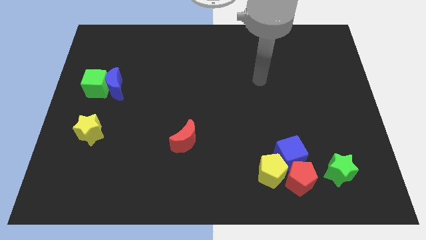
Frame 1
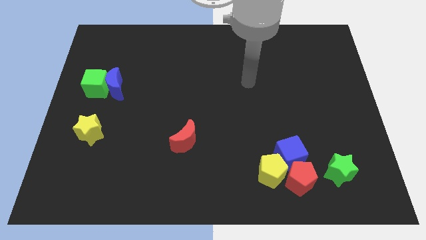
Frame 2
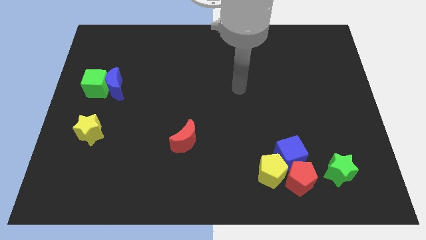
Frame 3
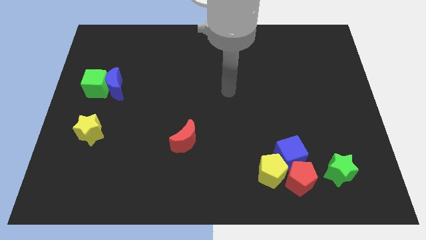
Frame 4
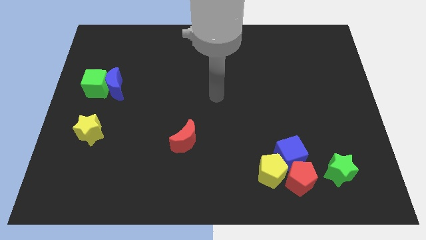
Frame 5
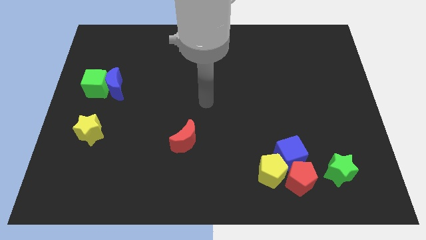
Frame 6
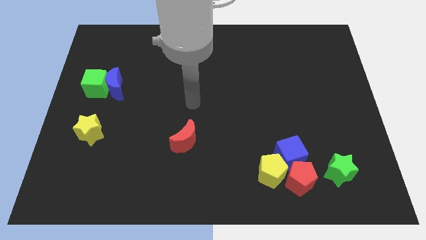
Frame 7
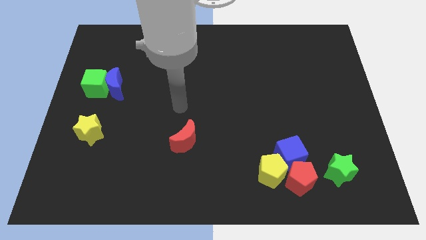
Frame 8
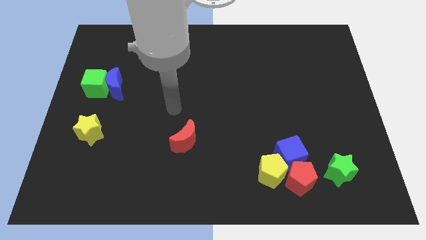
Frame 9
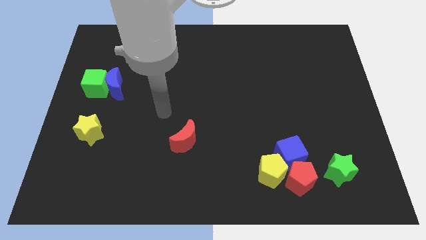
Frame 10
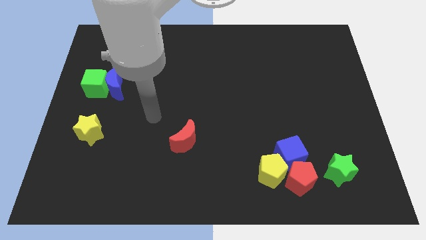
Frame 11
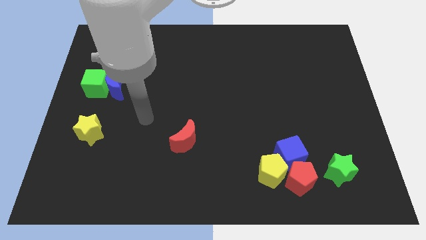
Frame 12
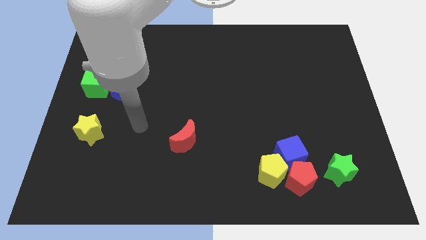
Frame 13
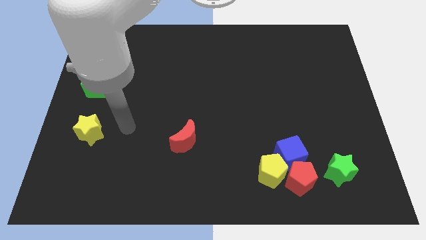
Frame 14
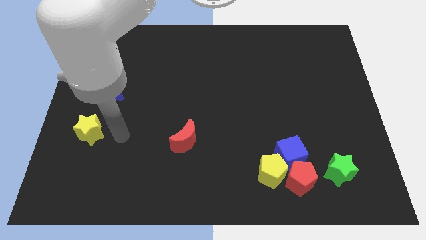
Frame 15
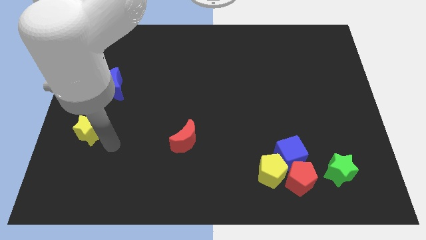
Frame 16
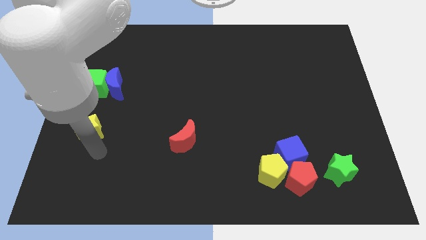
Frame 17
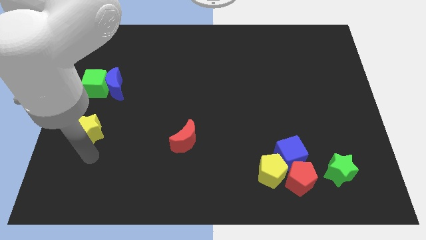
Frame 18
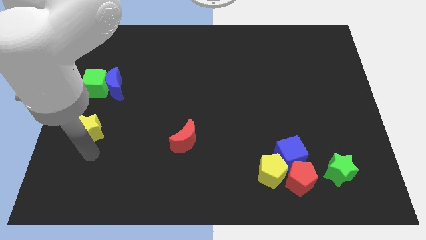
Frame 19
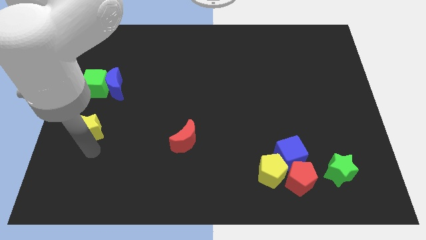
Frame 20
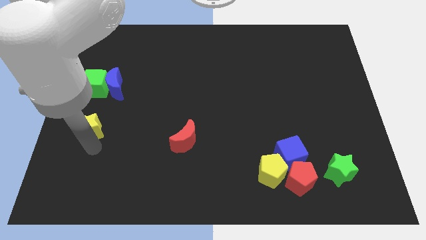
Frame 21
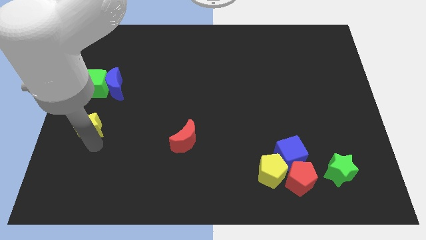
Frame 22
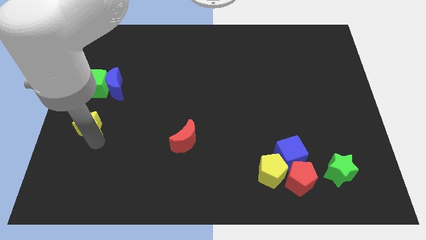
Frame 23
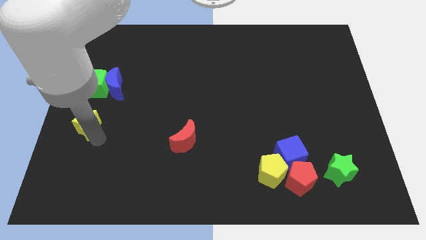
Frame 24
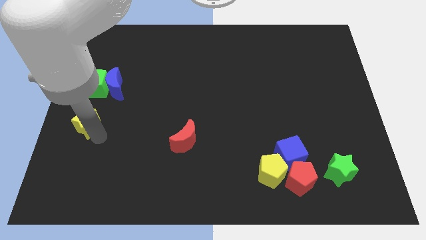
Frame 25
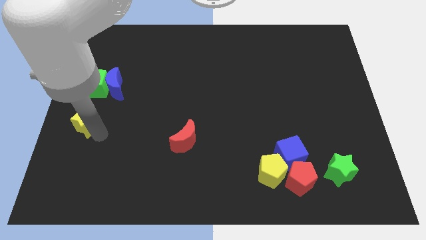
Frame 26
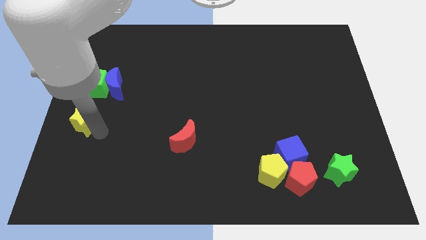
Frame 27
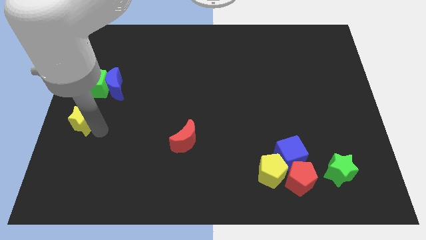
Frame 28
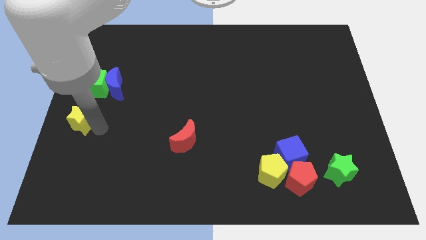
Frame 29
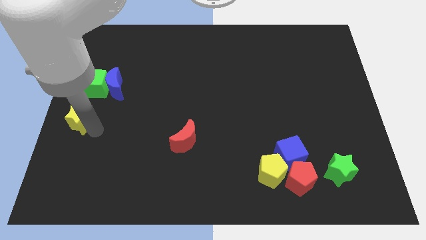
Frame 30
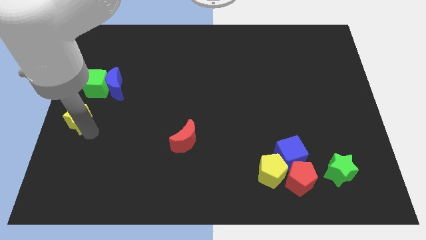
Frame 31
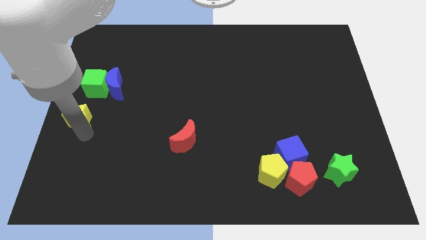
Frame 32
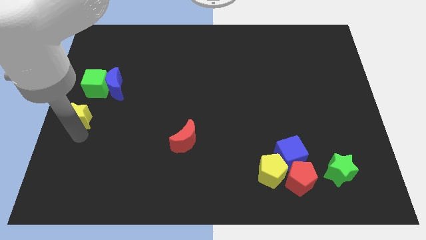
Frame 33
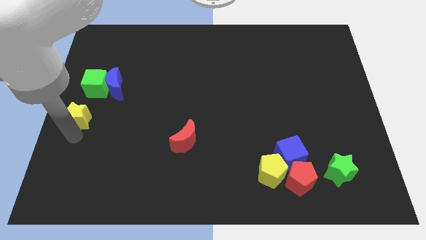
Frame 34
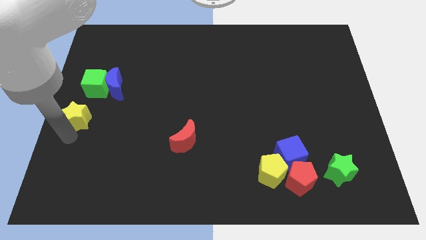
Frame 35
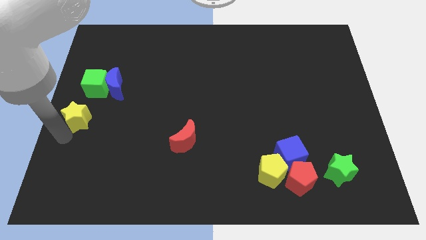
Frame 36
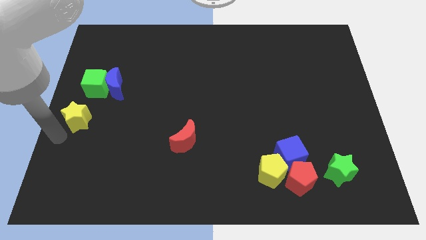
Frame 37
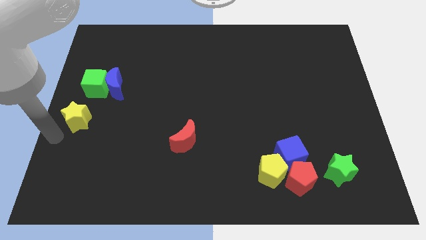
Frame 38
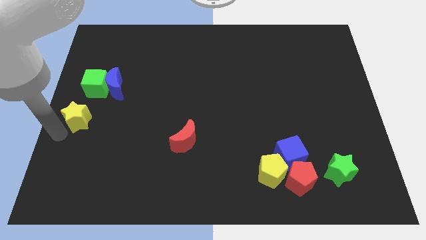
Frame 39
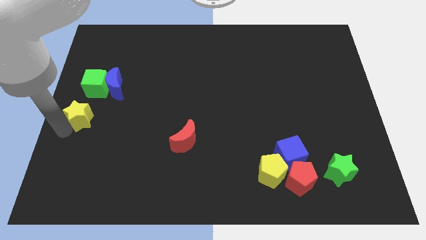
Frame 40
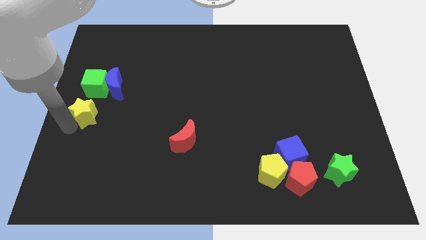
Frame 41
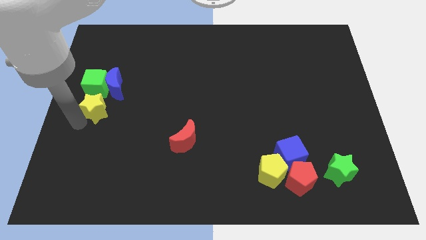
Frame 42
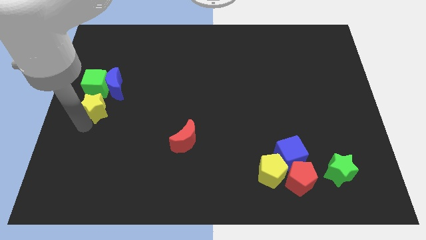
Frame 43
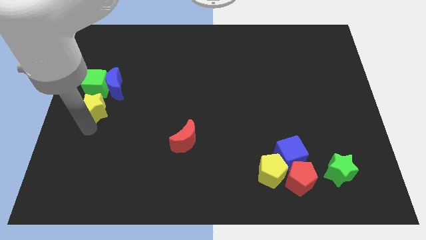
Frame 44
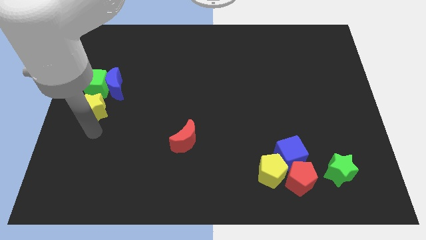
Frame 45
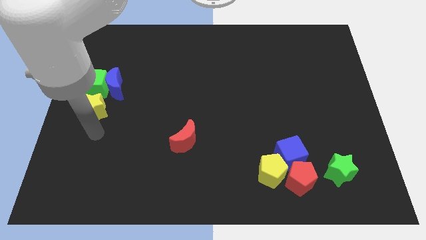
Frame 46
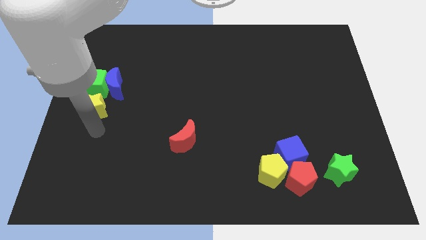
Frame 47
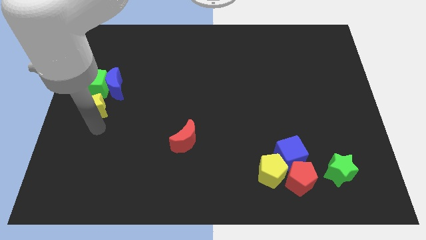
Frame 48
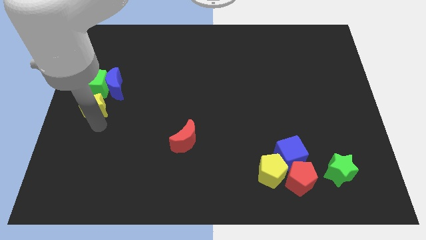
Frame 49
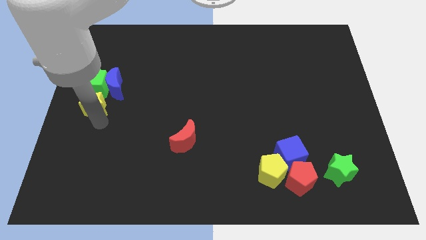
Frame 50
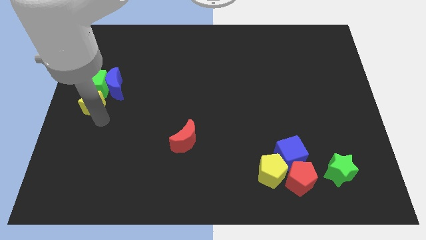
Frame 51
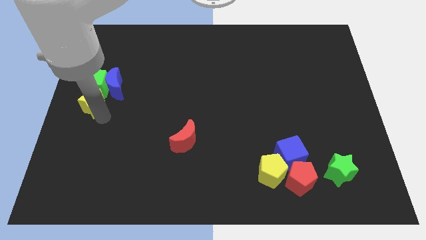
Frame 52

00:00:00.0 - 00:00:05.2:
slide the yellow star close to the green cube

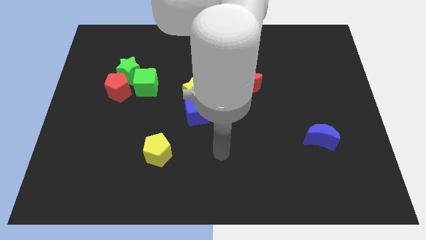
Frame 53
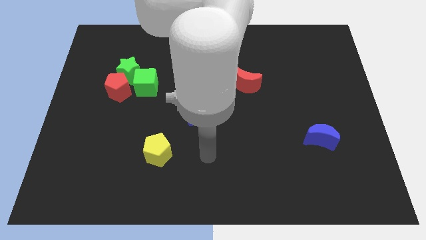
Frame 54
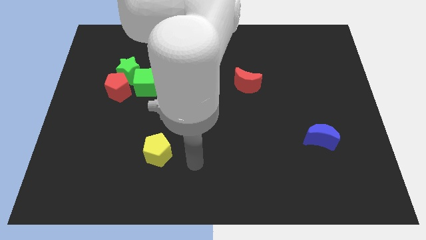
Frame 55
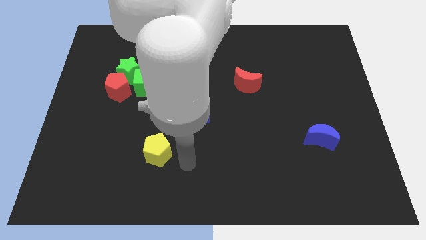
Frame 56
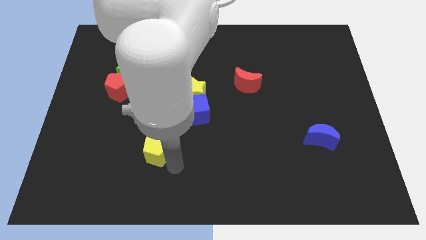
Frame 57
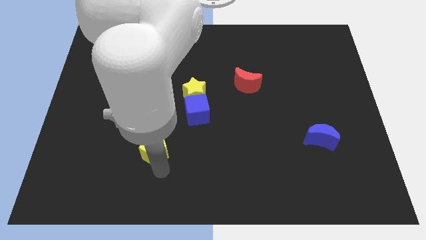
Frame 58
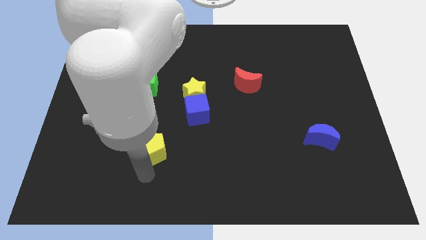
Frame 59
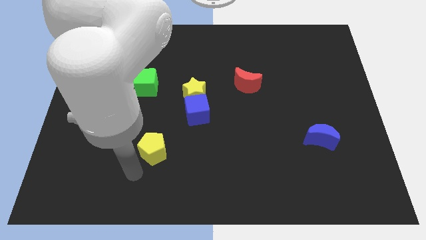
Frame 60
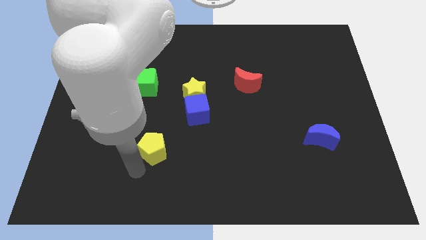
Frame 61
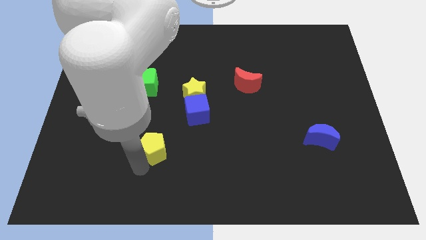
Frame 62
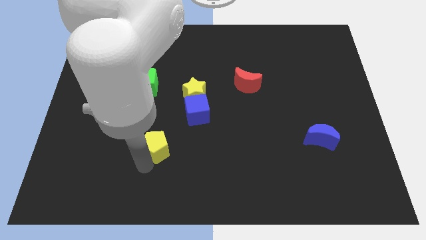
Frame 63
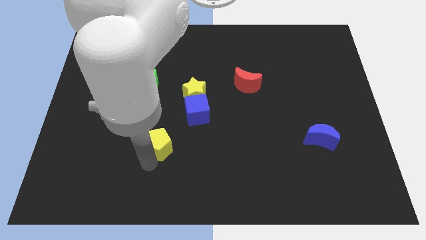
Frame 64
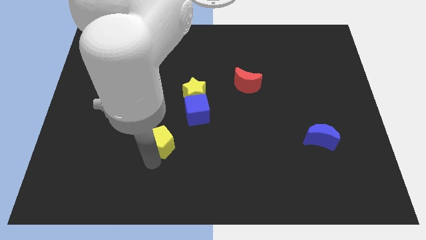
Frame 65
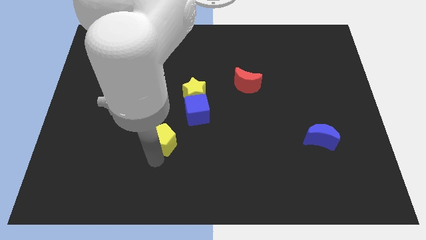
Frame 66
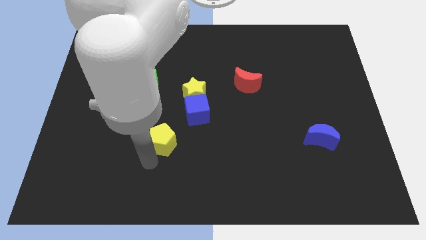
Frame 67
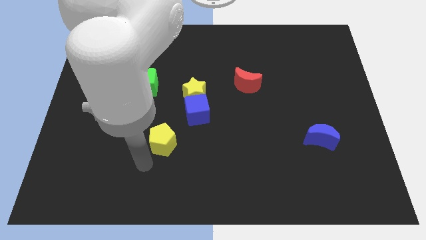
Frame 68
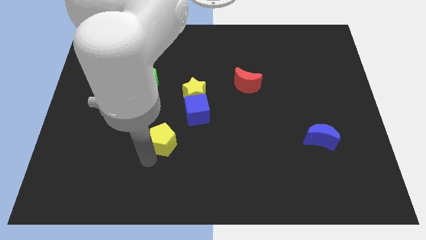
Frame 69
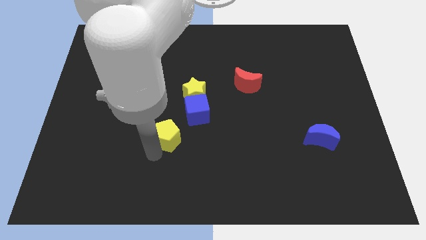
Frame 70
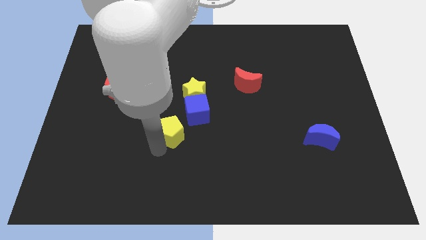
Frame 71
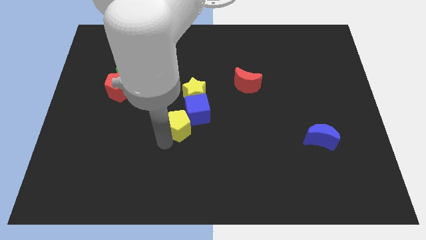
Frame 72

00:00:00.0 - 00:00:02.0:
push the yellow pentagon close to the blue cube

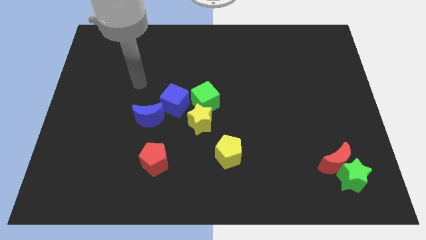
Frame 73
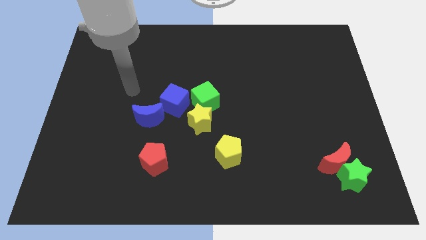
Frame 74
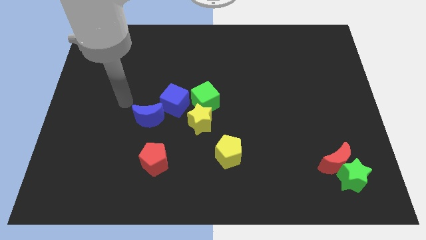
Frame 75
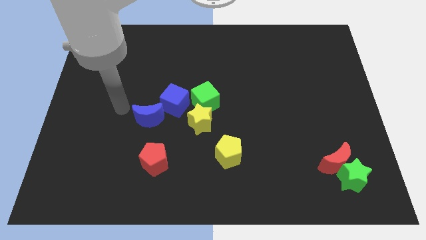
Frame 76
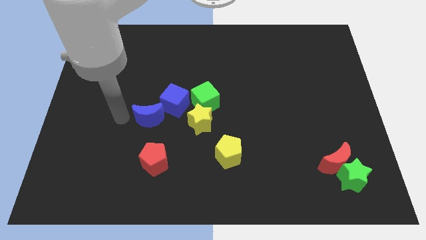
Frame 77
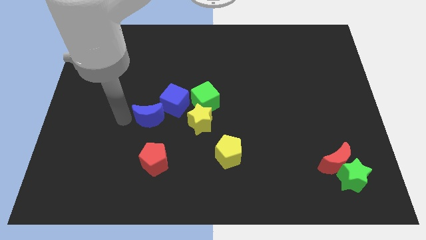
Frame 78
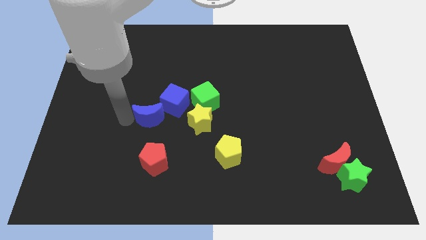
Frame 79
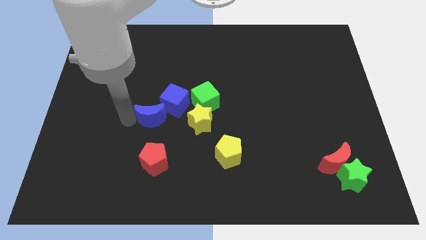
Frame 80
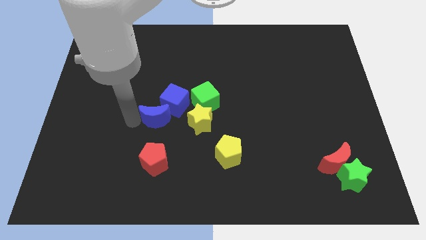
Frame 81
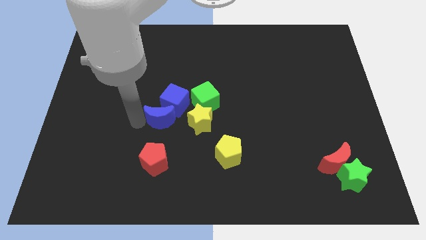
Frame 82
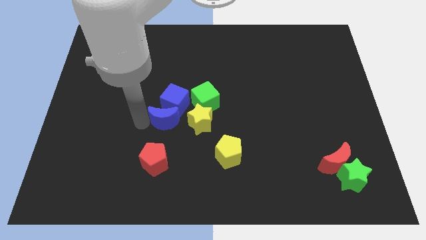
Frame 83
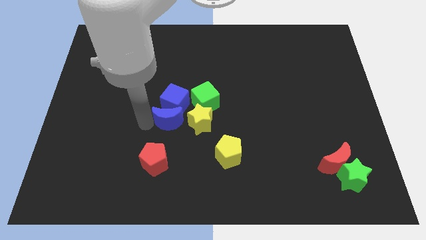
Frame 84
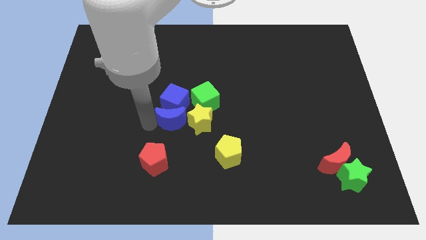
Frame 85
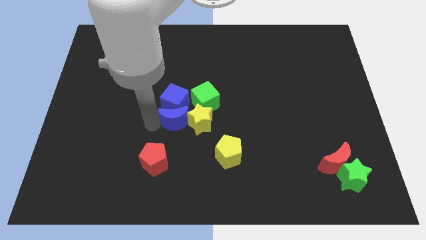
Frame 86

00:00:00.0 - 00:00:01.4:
put the blue moon towards the yellow star
